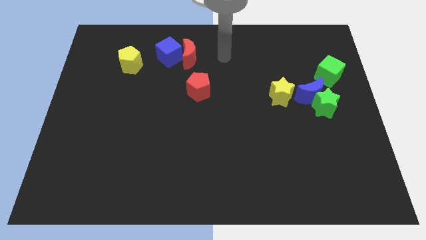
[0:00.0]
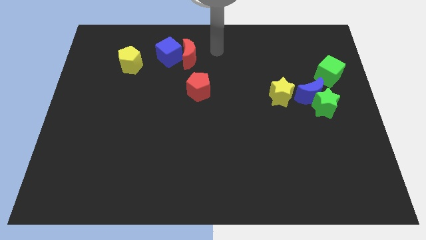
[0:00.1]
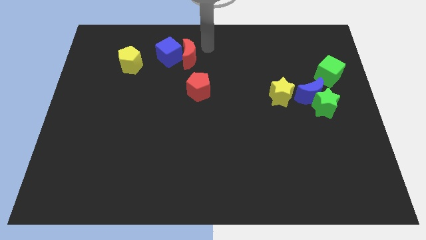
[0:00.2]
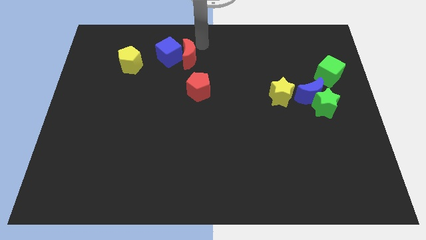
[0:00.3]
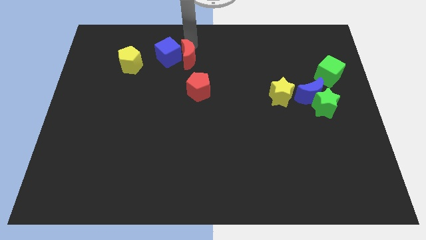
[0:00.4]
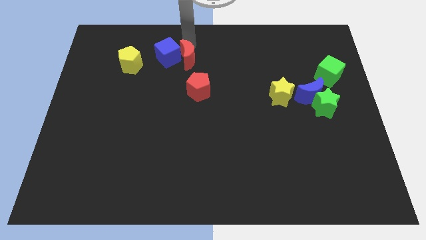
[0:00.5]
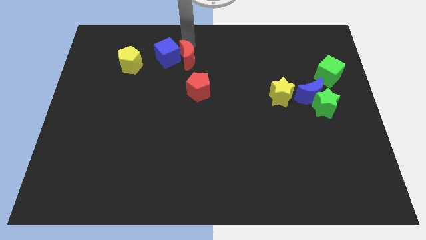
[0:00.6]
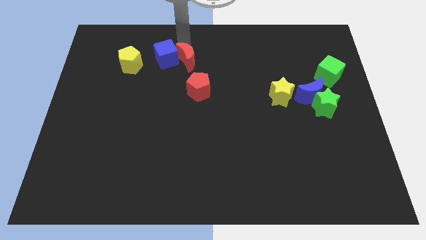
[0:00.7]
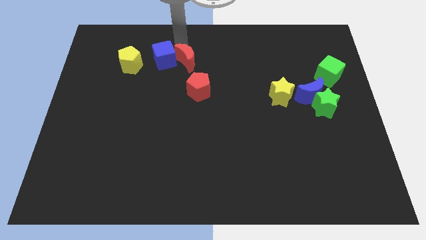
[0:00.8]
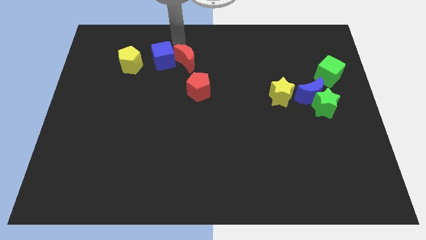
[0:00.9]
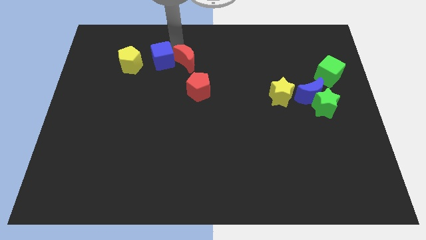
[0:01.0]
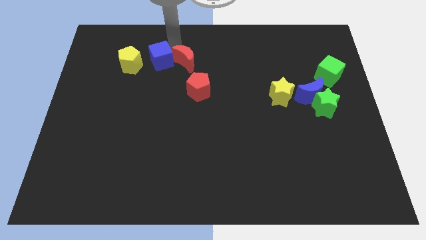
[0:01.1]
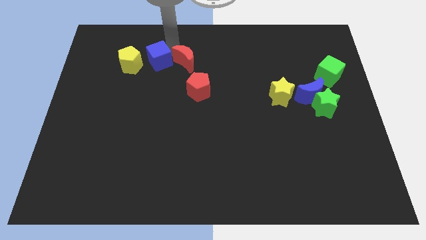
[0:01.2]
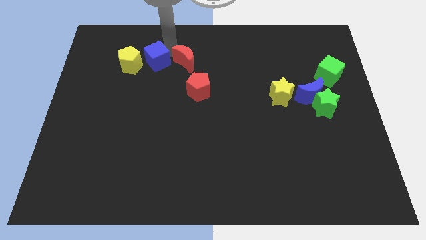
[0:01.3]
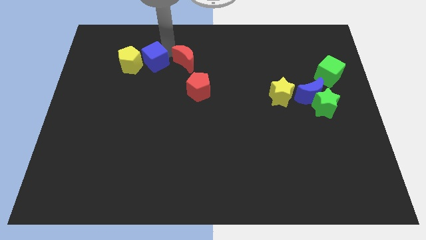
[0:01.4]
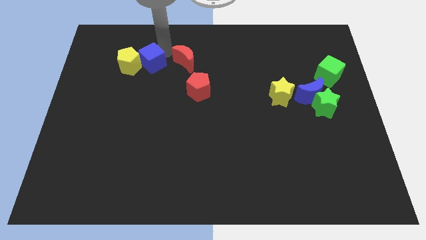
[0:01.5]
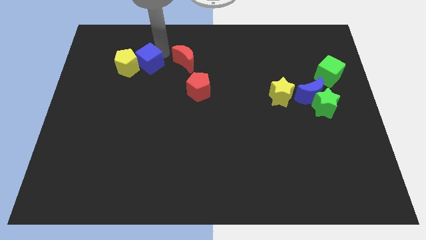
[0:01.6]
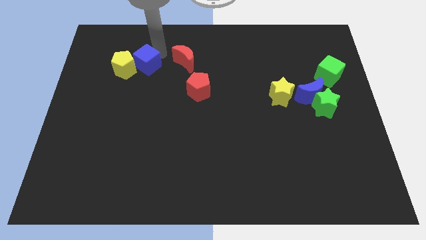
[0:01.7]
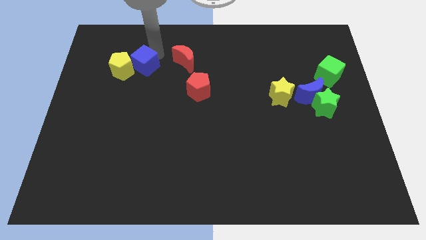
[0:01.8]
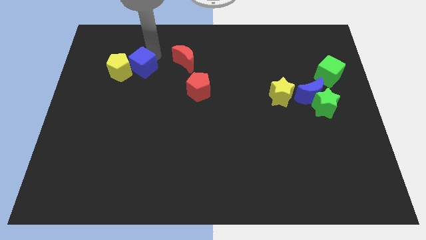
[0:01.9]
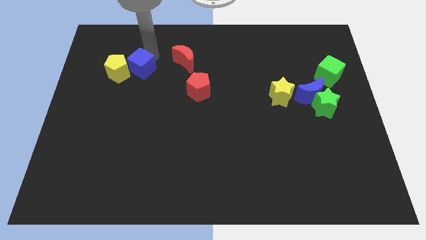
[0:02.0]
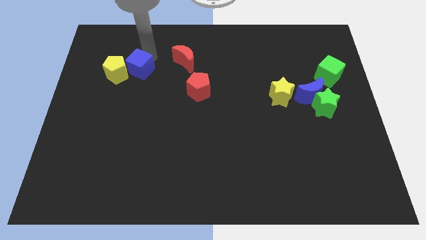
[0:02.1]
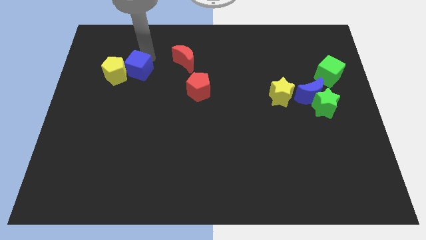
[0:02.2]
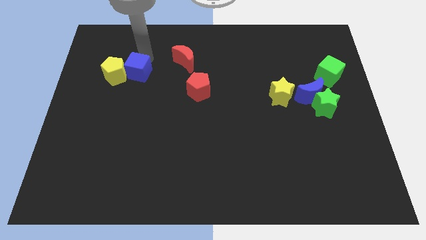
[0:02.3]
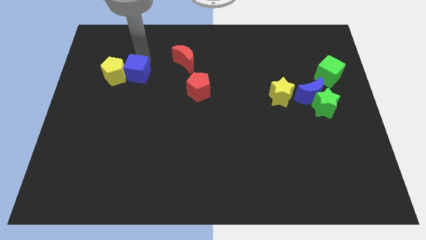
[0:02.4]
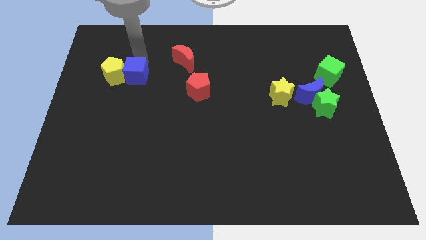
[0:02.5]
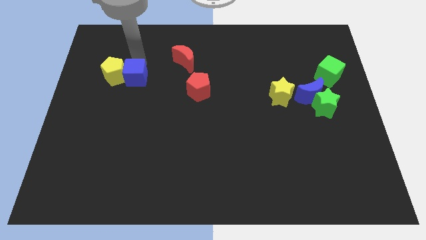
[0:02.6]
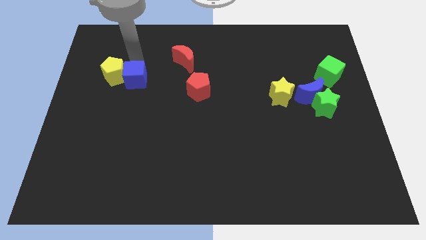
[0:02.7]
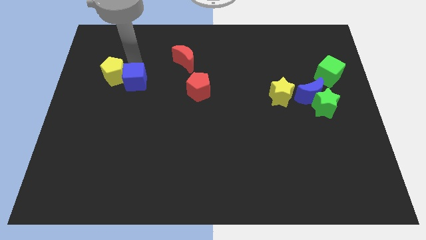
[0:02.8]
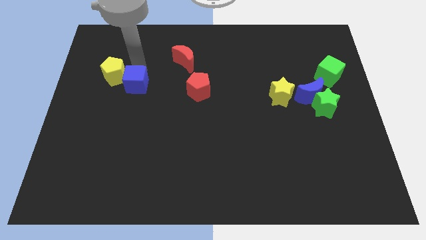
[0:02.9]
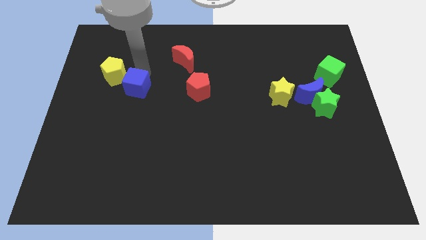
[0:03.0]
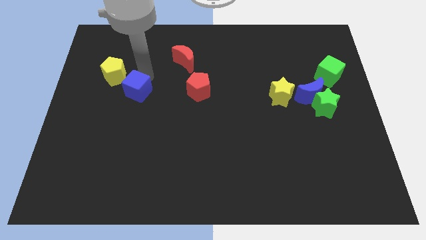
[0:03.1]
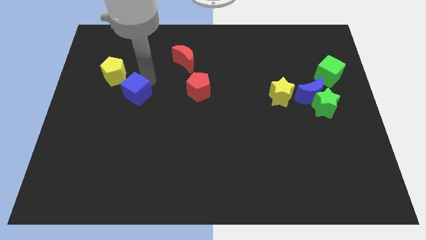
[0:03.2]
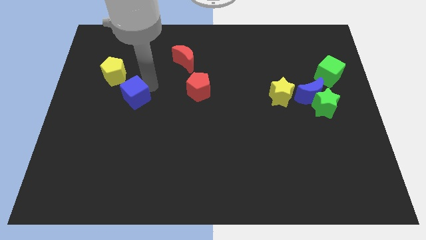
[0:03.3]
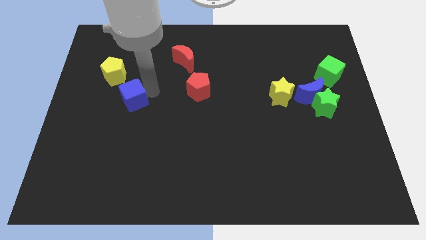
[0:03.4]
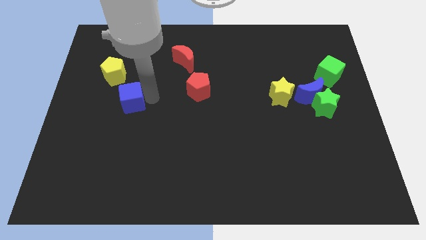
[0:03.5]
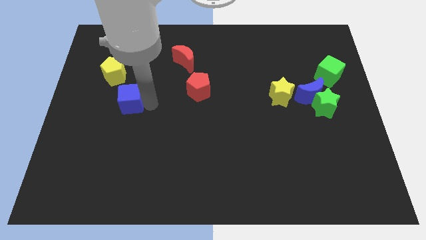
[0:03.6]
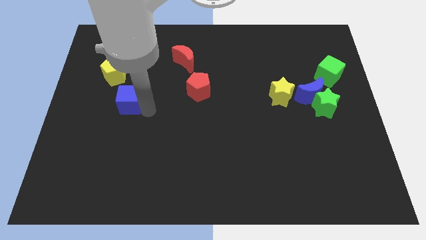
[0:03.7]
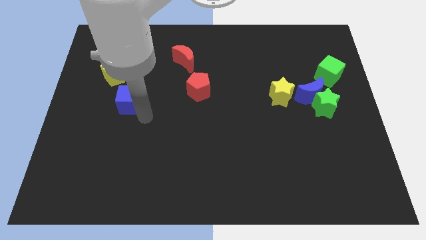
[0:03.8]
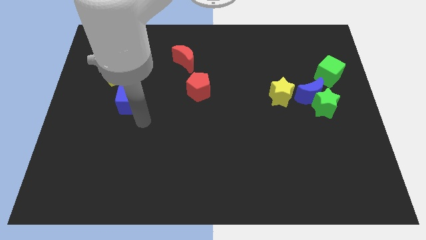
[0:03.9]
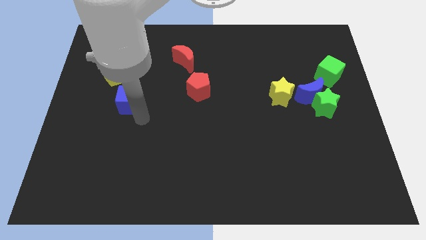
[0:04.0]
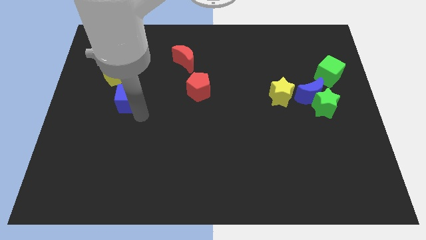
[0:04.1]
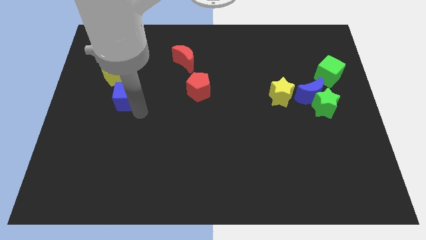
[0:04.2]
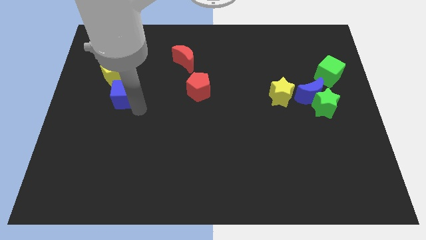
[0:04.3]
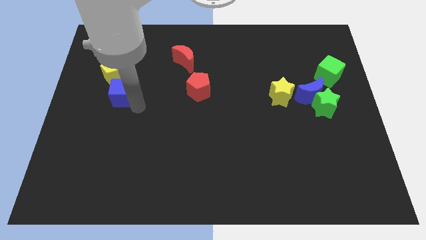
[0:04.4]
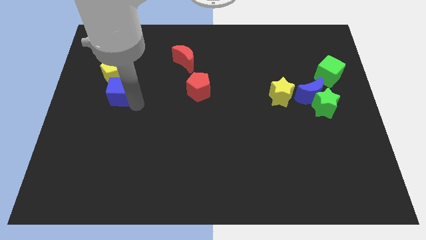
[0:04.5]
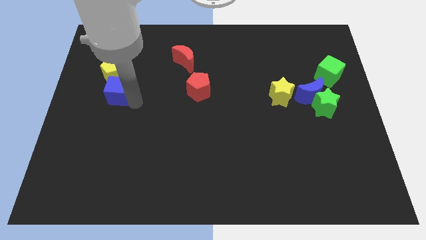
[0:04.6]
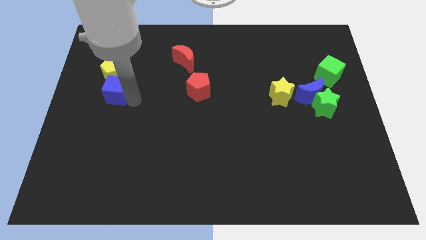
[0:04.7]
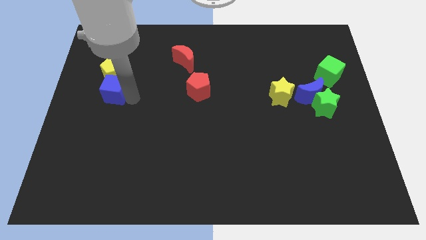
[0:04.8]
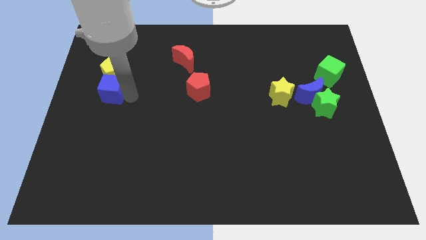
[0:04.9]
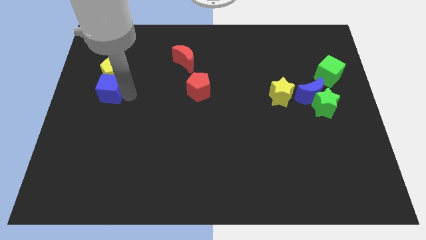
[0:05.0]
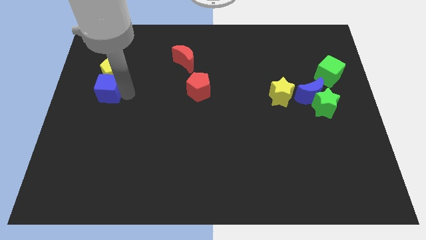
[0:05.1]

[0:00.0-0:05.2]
push the blue cube to the center left

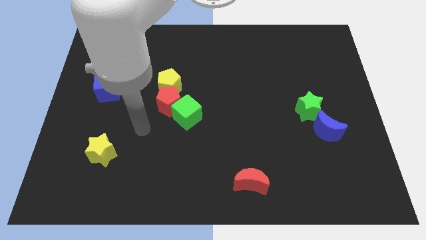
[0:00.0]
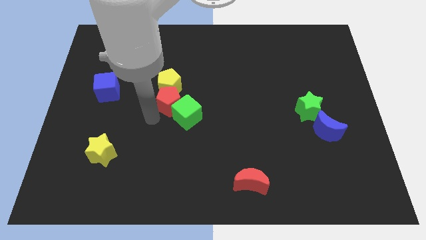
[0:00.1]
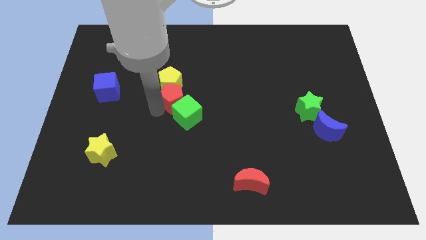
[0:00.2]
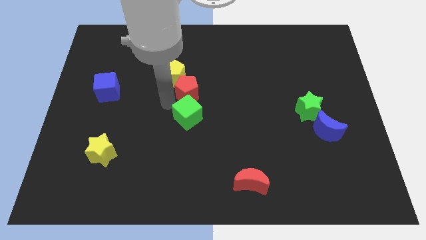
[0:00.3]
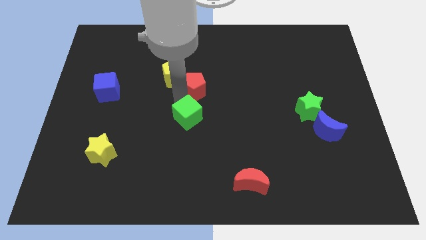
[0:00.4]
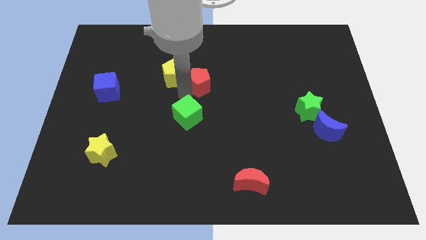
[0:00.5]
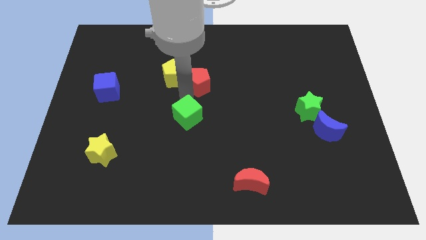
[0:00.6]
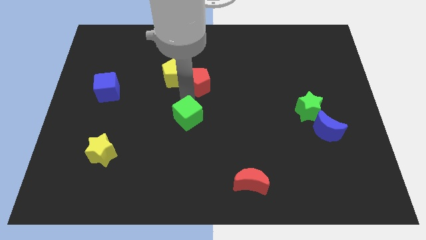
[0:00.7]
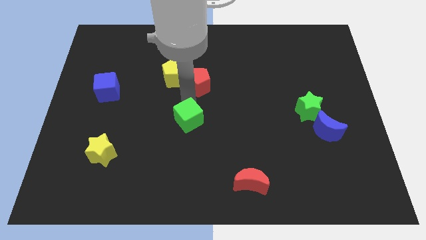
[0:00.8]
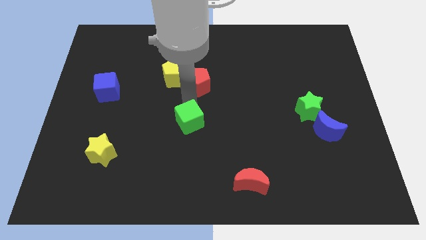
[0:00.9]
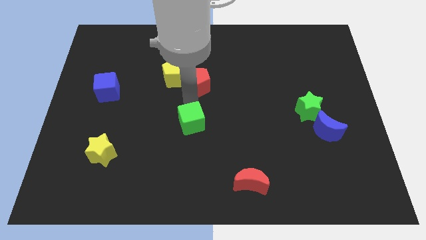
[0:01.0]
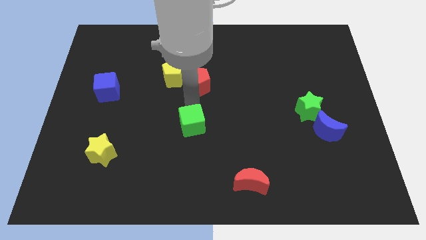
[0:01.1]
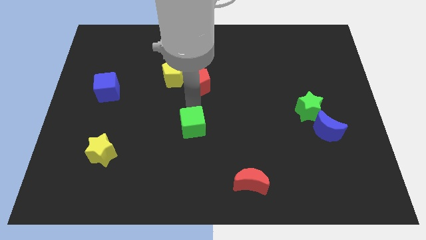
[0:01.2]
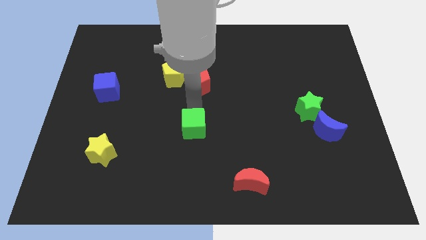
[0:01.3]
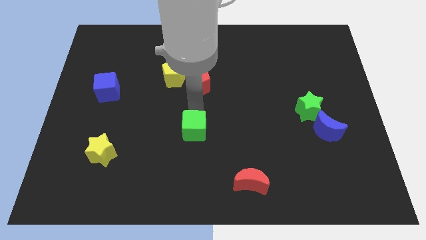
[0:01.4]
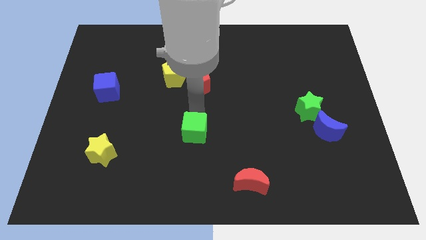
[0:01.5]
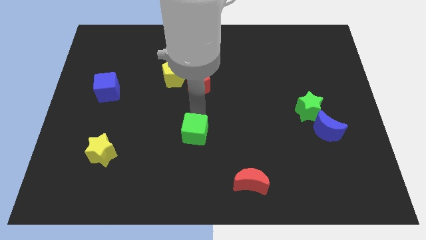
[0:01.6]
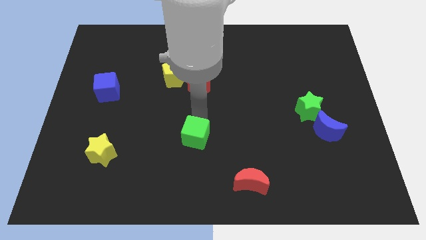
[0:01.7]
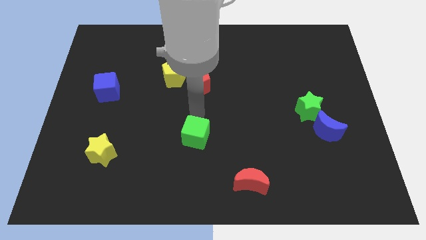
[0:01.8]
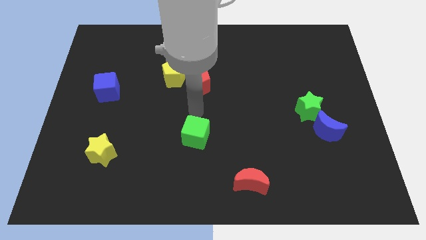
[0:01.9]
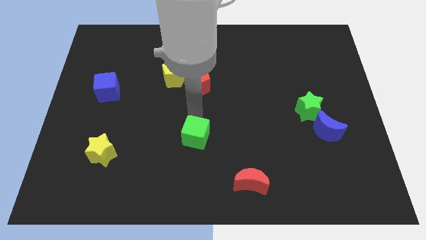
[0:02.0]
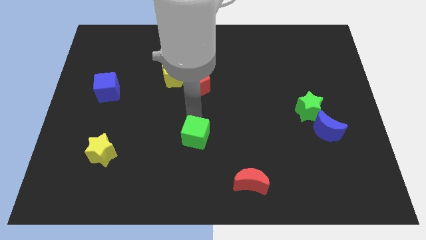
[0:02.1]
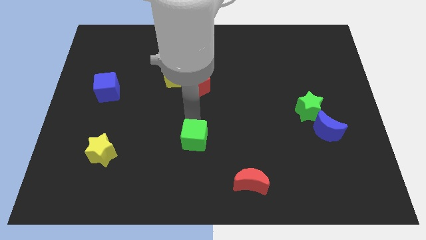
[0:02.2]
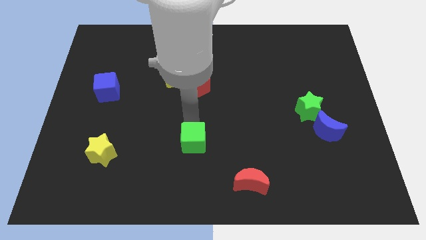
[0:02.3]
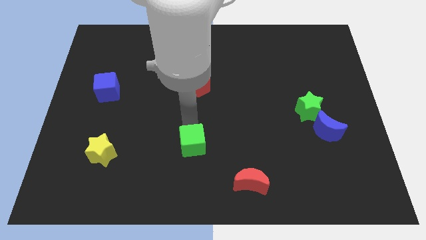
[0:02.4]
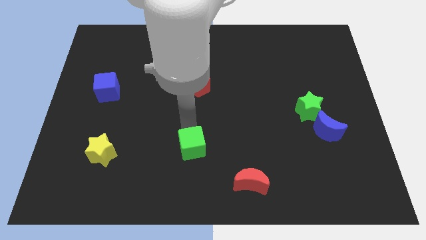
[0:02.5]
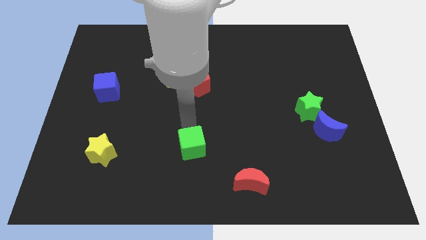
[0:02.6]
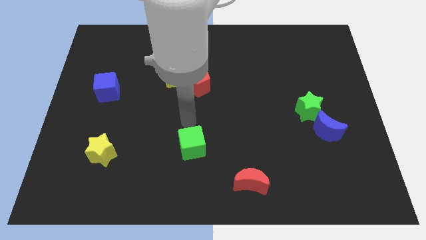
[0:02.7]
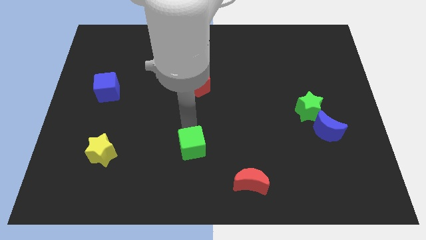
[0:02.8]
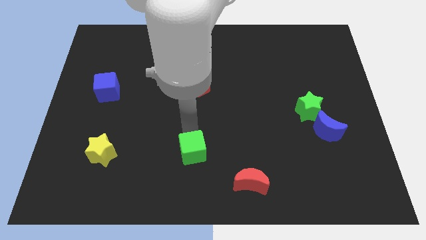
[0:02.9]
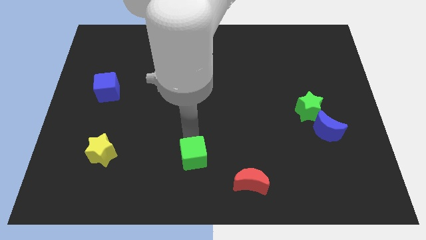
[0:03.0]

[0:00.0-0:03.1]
push the green cube to the bottom side
